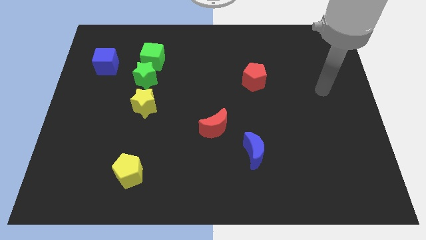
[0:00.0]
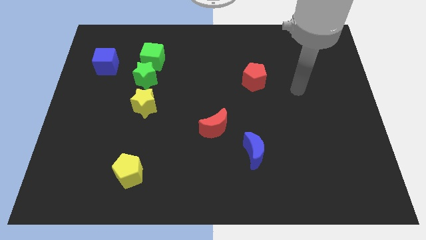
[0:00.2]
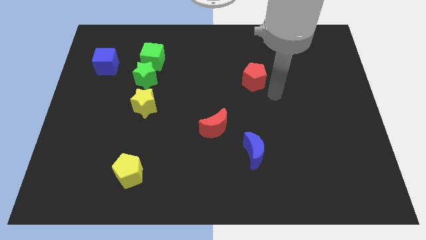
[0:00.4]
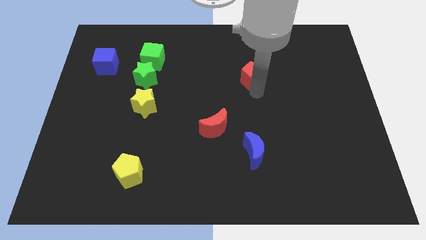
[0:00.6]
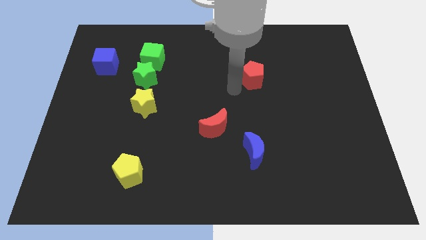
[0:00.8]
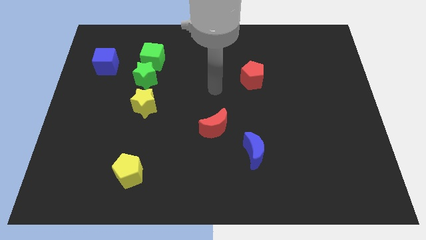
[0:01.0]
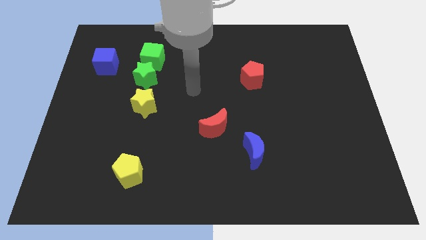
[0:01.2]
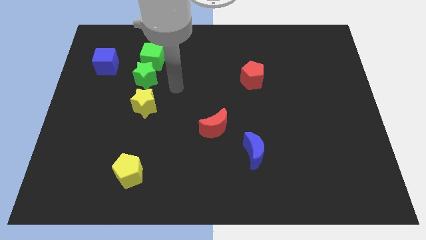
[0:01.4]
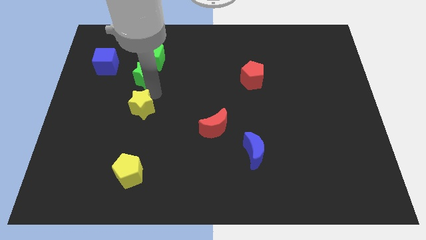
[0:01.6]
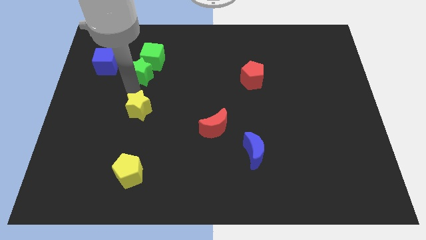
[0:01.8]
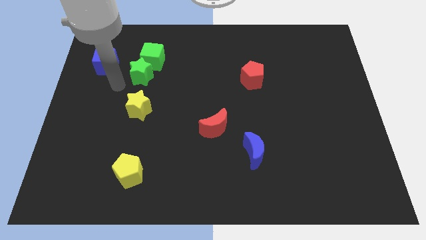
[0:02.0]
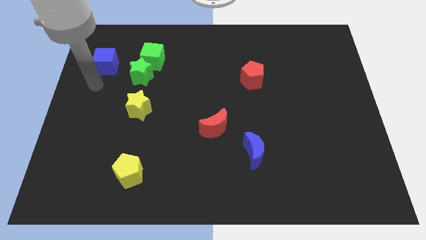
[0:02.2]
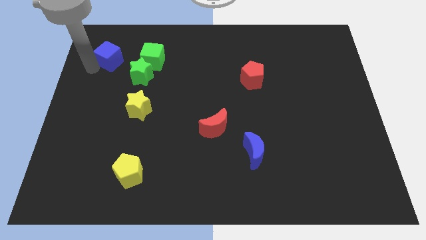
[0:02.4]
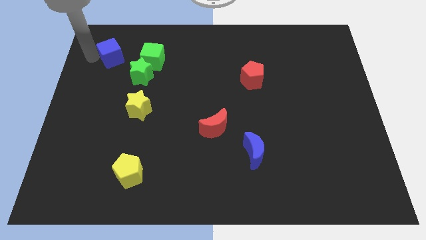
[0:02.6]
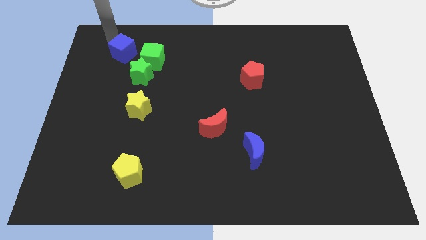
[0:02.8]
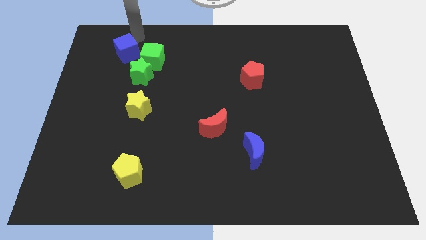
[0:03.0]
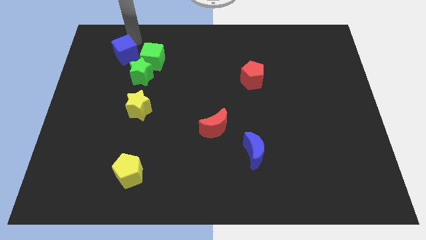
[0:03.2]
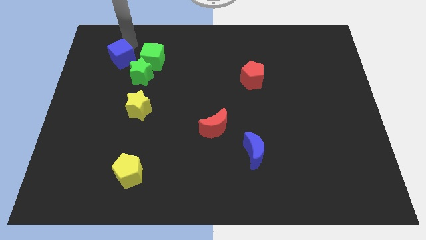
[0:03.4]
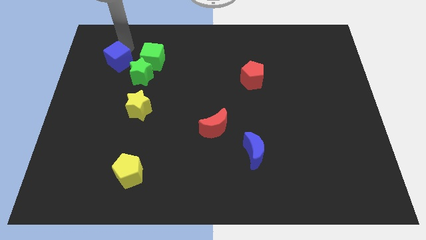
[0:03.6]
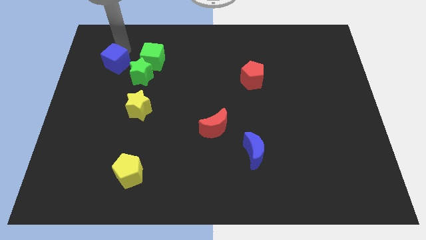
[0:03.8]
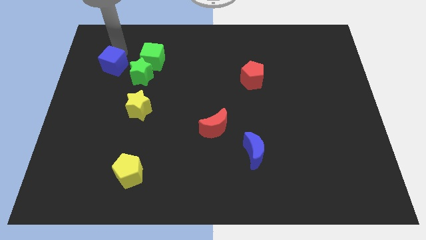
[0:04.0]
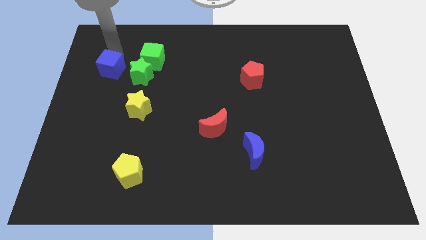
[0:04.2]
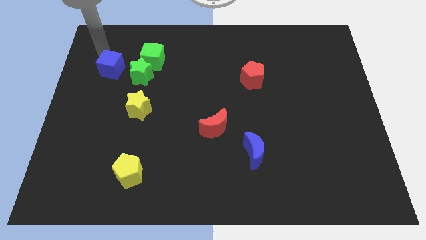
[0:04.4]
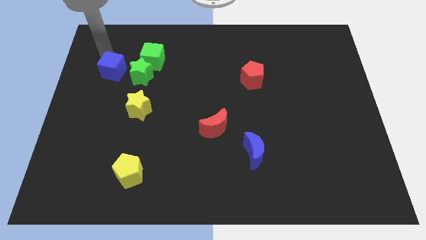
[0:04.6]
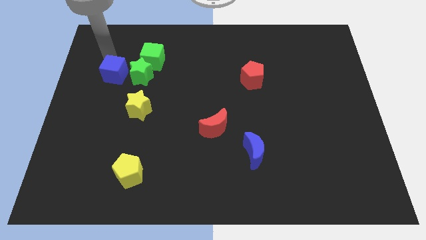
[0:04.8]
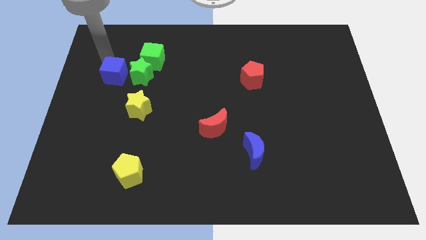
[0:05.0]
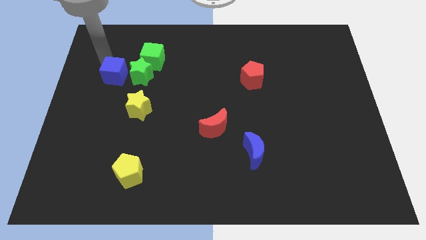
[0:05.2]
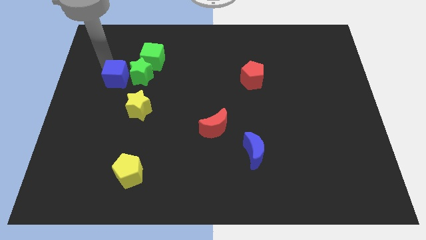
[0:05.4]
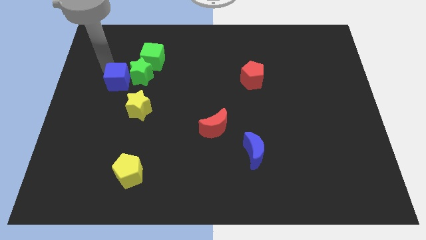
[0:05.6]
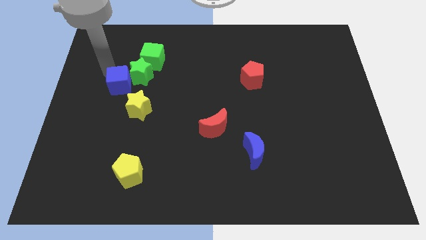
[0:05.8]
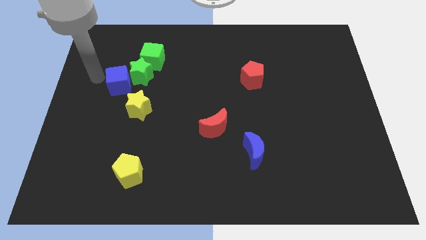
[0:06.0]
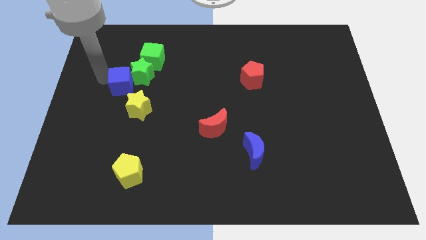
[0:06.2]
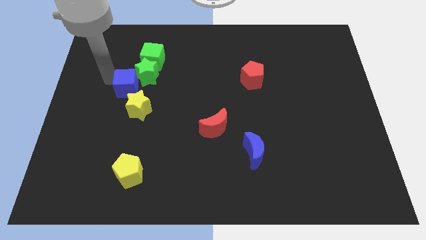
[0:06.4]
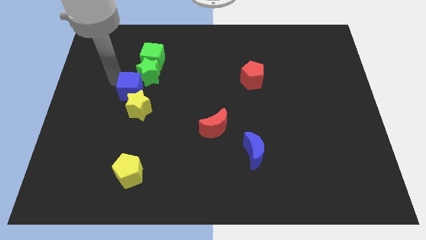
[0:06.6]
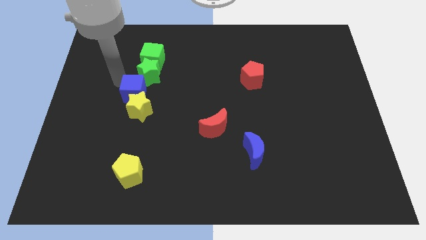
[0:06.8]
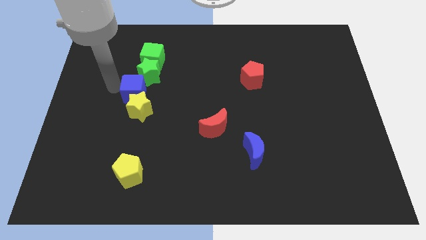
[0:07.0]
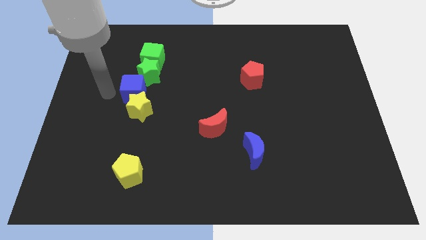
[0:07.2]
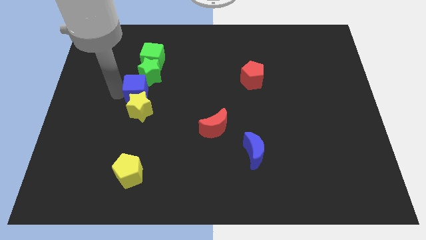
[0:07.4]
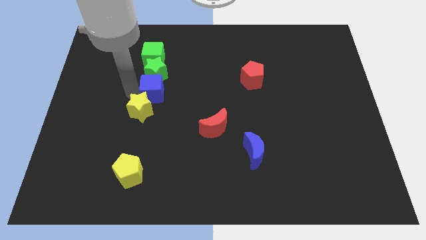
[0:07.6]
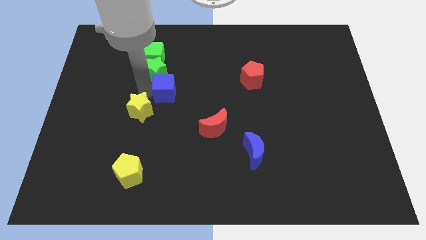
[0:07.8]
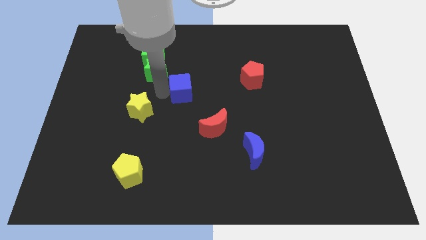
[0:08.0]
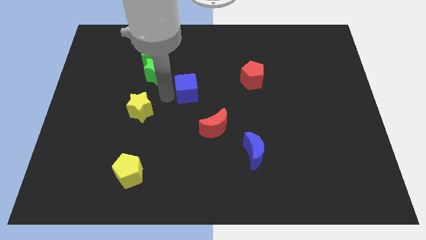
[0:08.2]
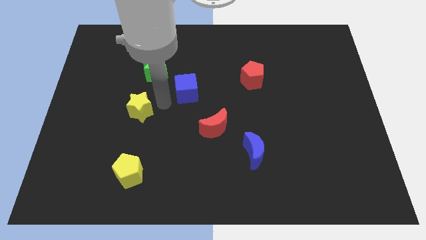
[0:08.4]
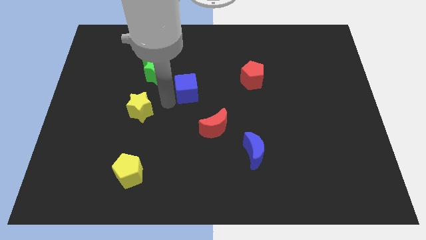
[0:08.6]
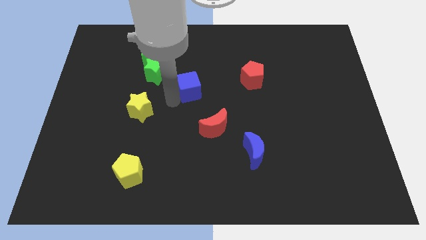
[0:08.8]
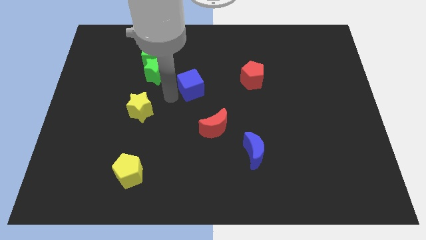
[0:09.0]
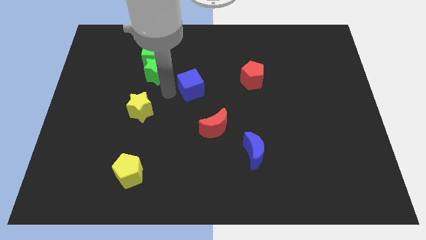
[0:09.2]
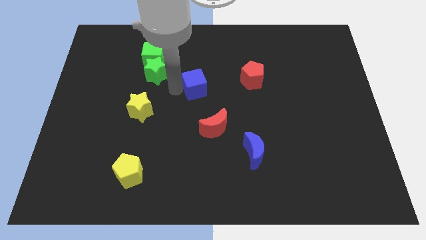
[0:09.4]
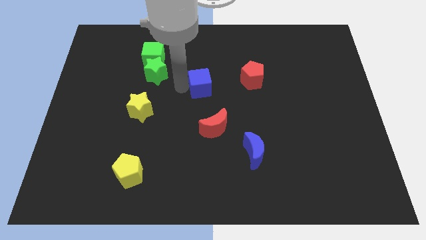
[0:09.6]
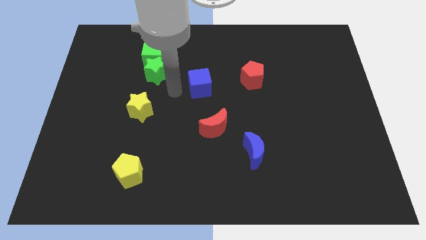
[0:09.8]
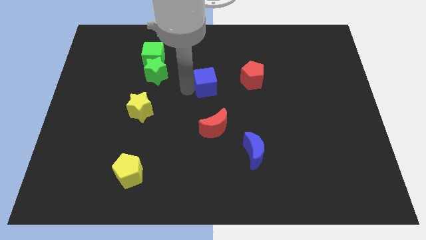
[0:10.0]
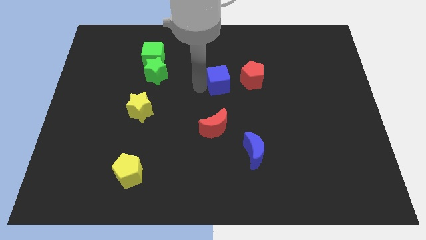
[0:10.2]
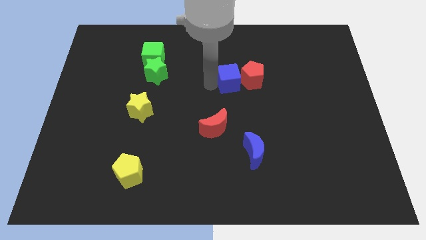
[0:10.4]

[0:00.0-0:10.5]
push the blue cube next to the red pentagon

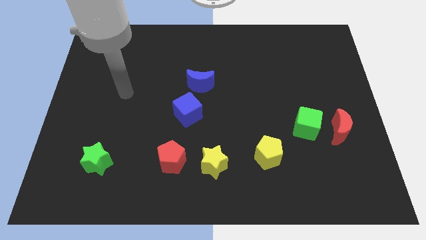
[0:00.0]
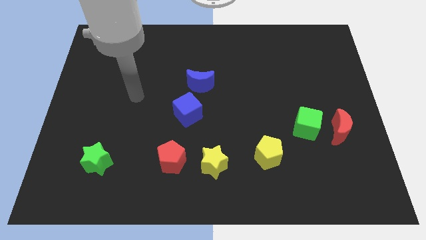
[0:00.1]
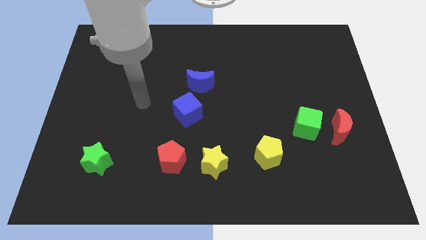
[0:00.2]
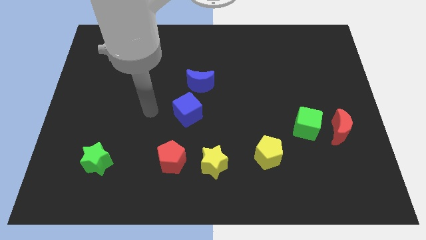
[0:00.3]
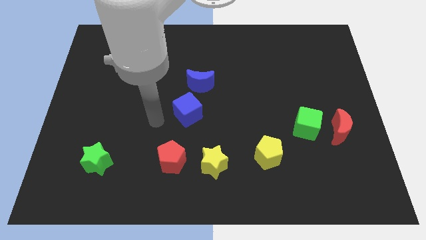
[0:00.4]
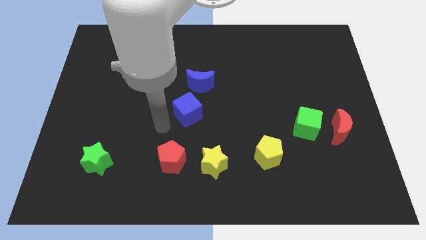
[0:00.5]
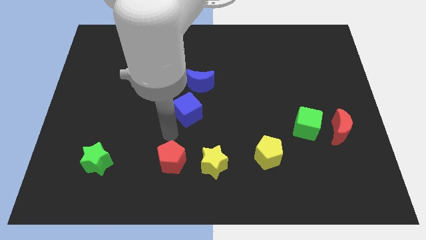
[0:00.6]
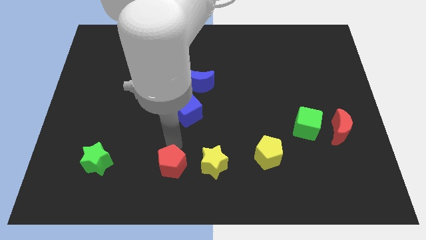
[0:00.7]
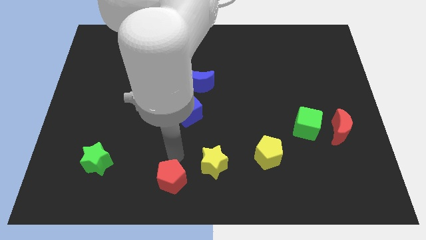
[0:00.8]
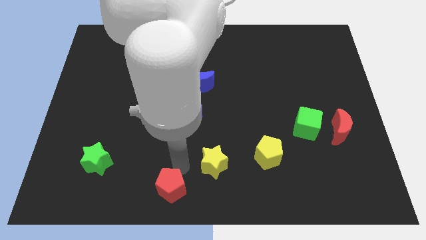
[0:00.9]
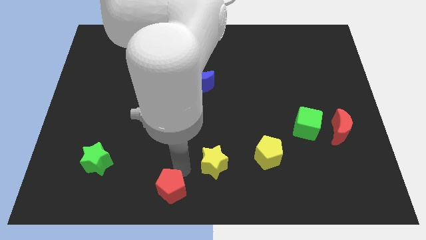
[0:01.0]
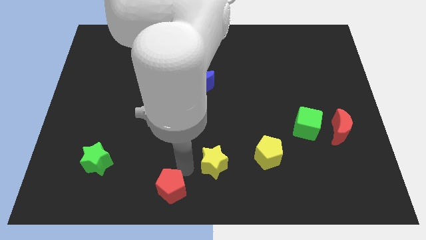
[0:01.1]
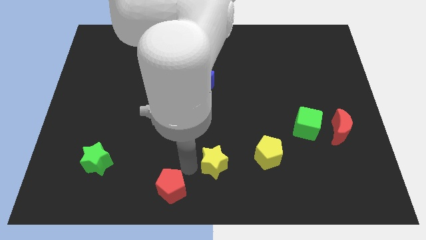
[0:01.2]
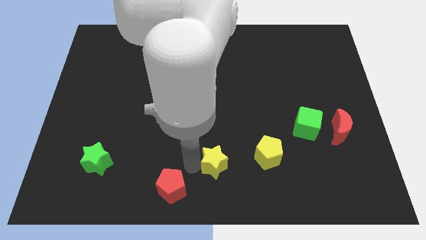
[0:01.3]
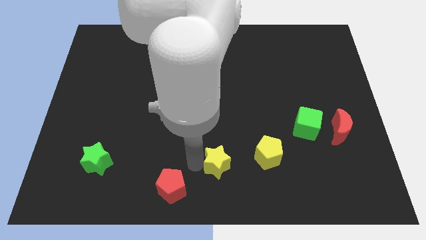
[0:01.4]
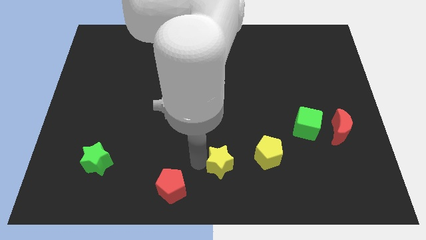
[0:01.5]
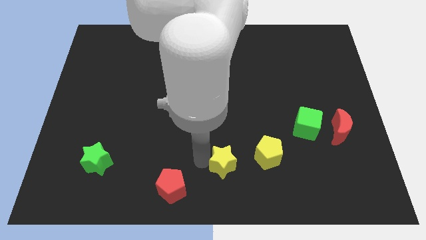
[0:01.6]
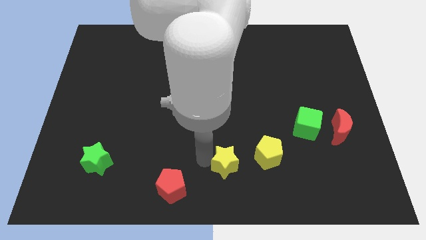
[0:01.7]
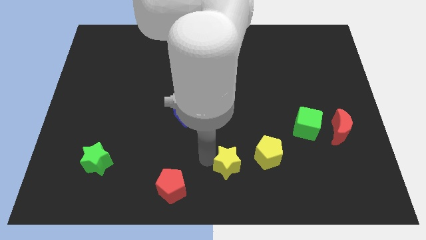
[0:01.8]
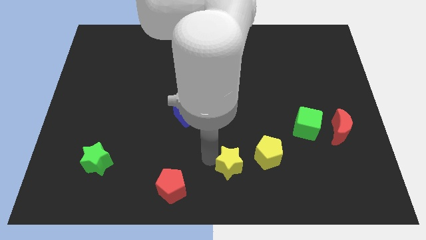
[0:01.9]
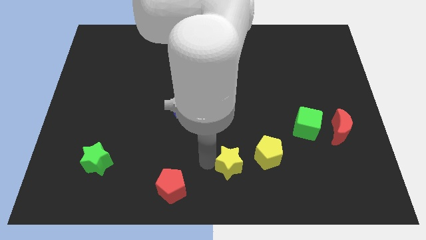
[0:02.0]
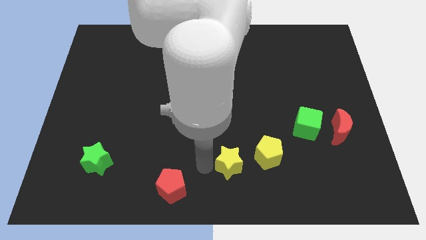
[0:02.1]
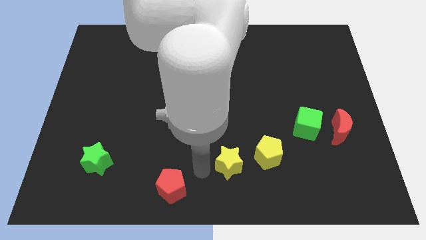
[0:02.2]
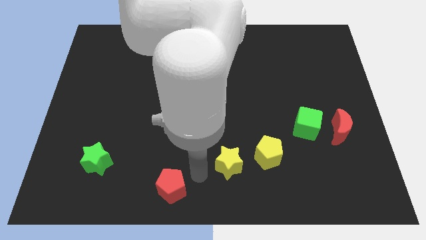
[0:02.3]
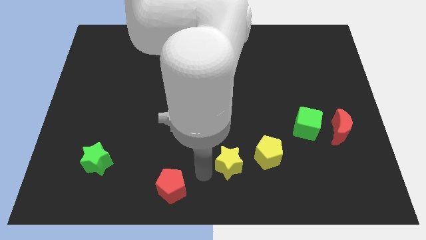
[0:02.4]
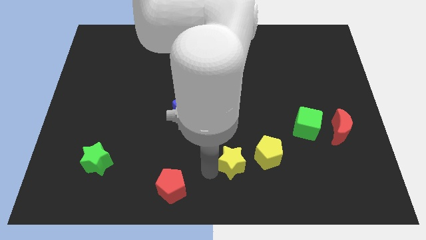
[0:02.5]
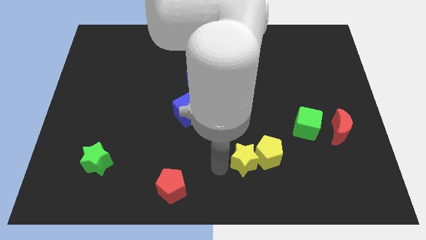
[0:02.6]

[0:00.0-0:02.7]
put the yellow star close to the yellow pentagon
